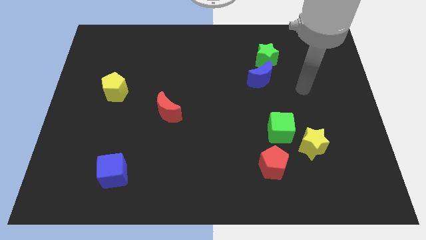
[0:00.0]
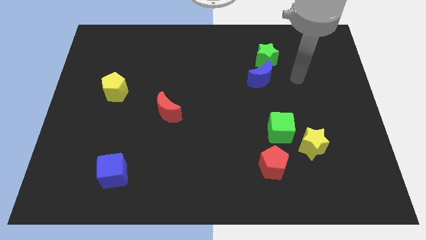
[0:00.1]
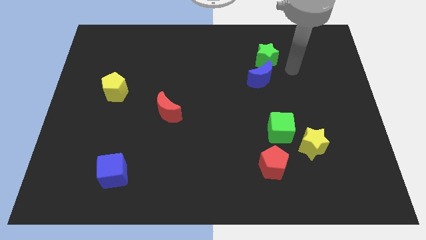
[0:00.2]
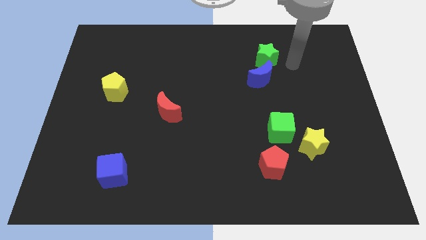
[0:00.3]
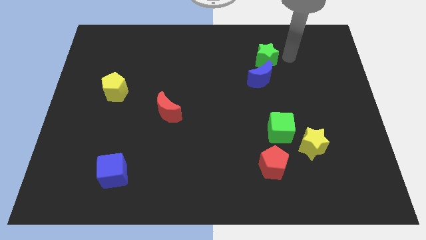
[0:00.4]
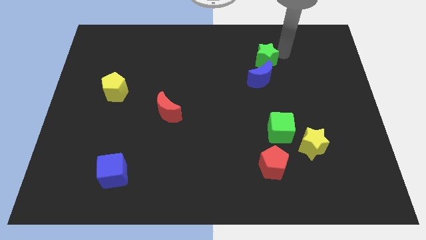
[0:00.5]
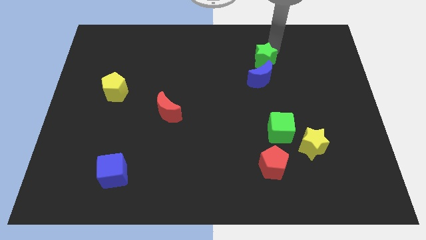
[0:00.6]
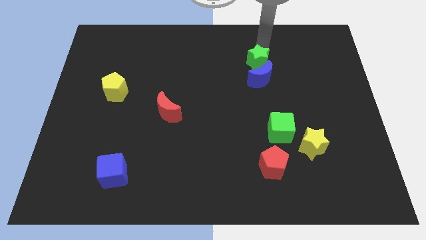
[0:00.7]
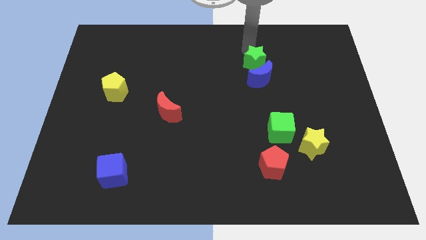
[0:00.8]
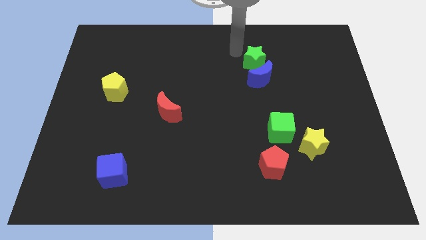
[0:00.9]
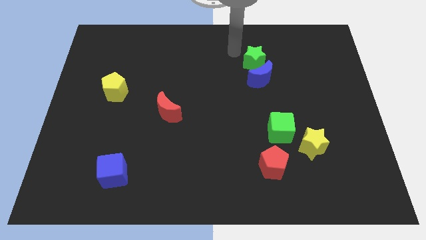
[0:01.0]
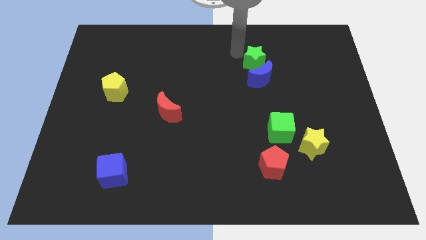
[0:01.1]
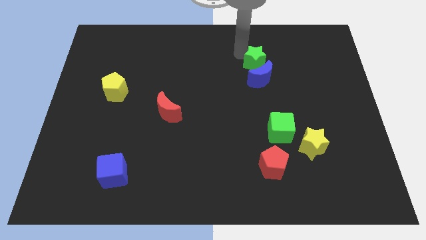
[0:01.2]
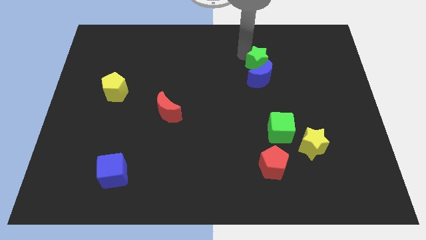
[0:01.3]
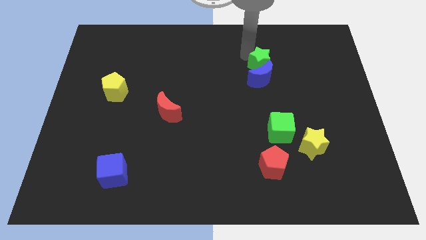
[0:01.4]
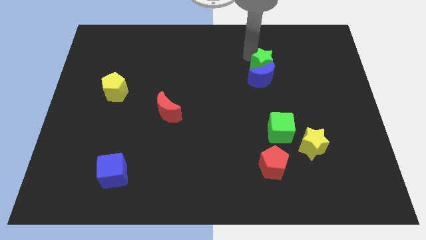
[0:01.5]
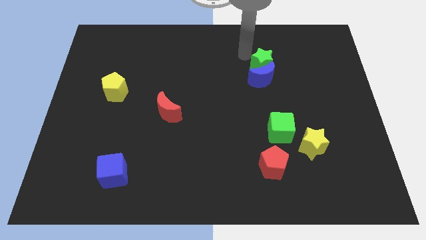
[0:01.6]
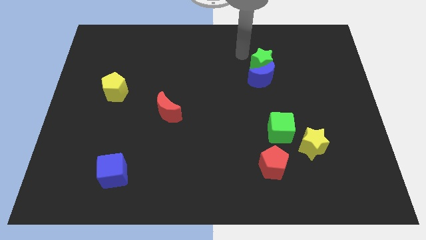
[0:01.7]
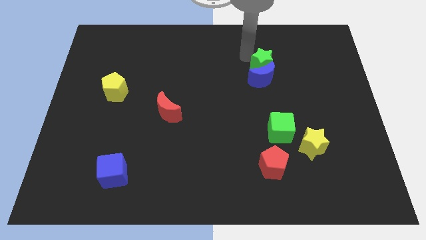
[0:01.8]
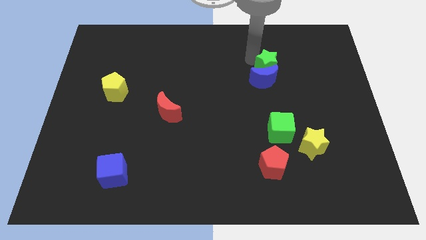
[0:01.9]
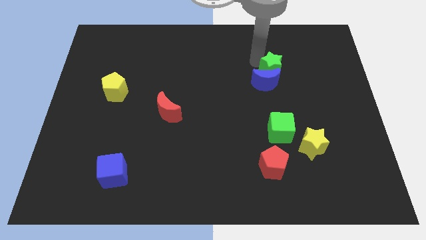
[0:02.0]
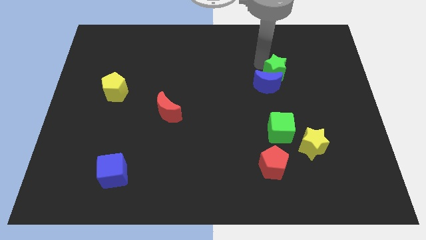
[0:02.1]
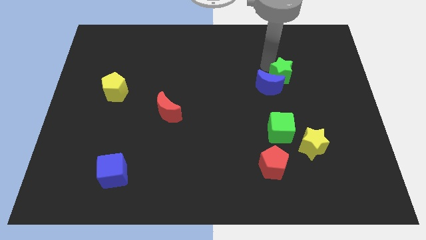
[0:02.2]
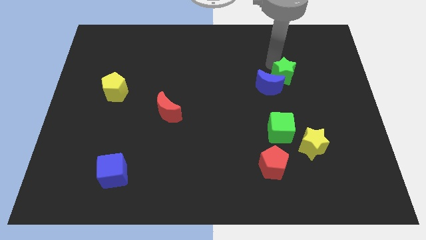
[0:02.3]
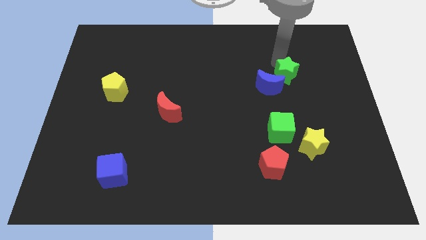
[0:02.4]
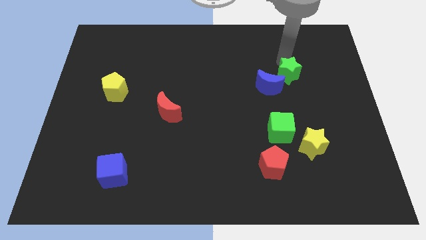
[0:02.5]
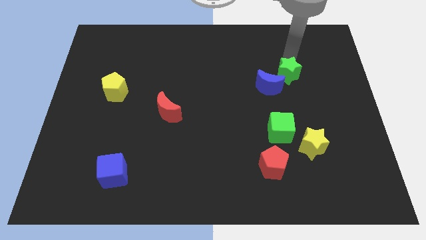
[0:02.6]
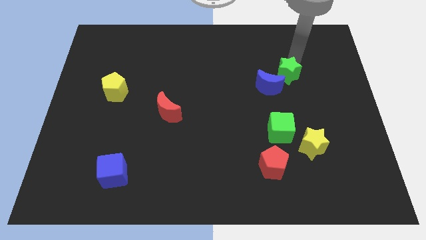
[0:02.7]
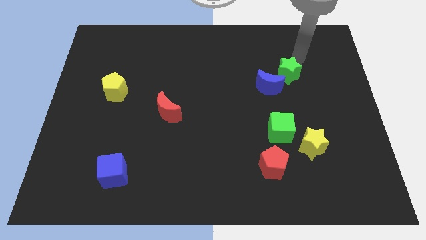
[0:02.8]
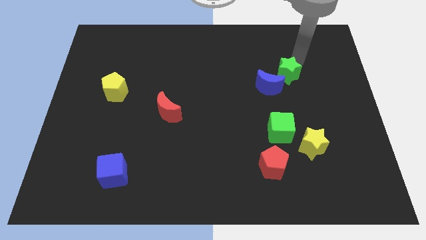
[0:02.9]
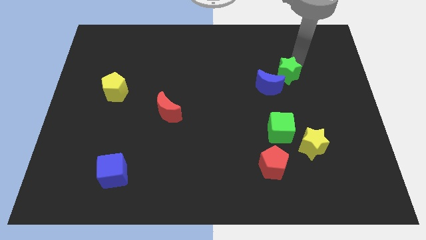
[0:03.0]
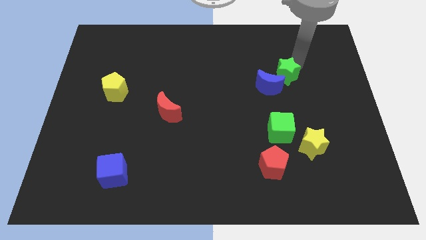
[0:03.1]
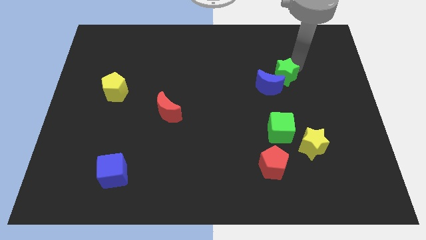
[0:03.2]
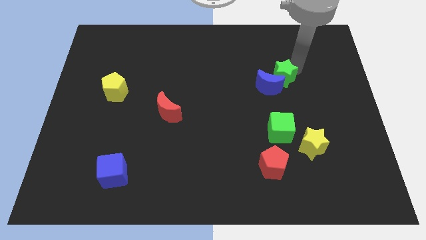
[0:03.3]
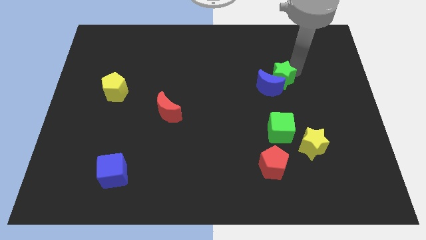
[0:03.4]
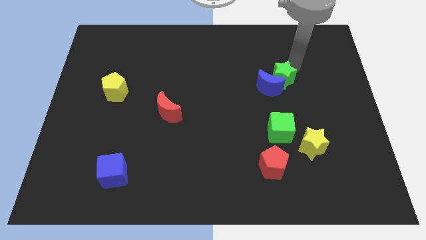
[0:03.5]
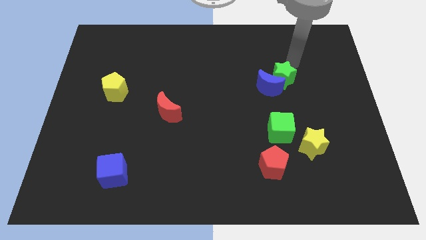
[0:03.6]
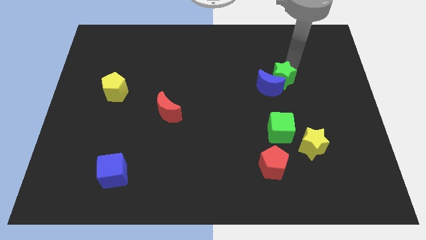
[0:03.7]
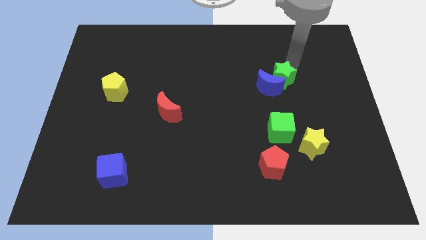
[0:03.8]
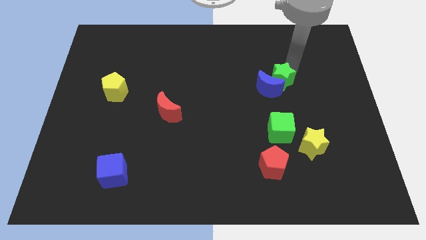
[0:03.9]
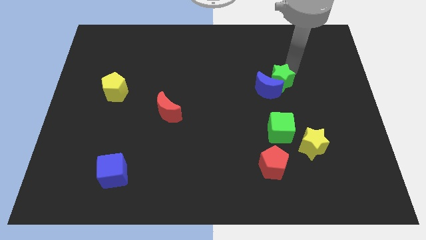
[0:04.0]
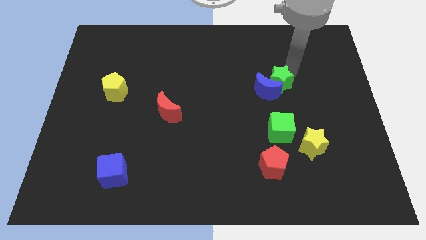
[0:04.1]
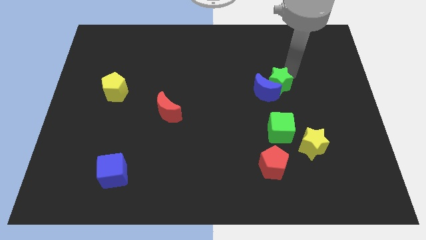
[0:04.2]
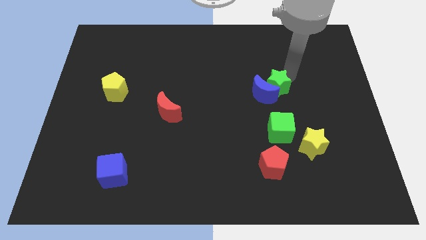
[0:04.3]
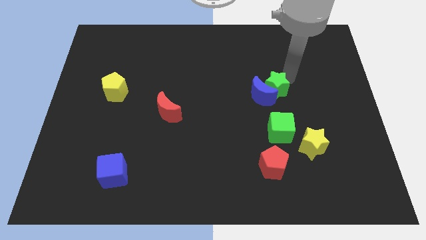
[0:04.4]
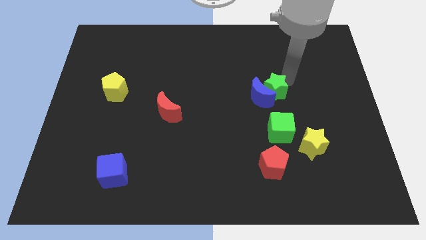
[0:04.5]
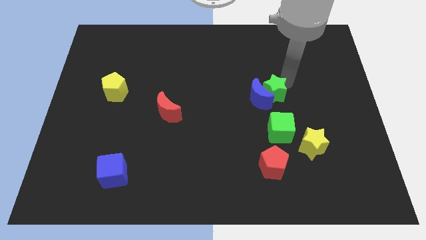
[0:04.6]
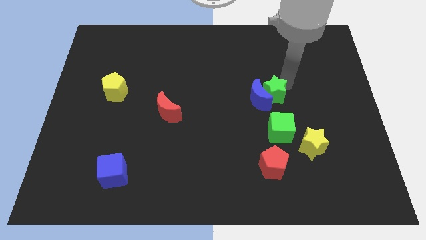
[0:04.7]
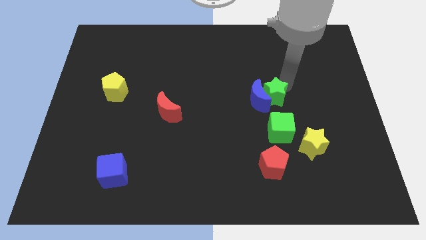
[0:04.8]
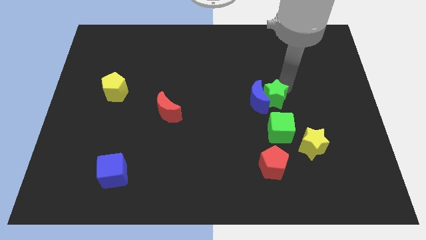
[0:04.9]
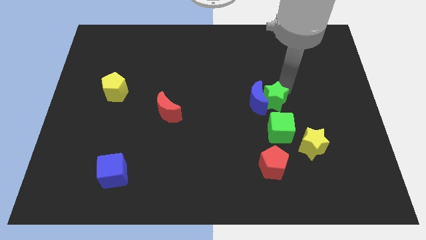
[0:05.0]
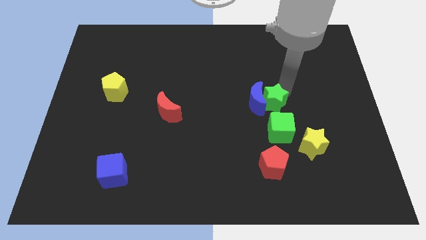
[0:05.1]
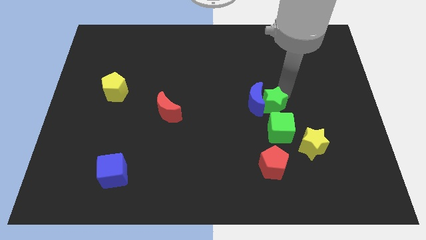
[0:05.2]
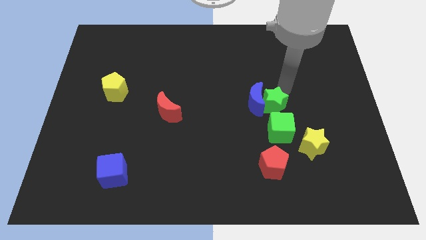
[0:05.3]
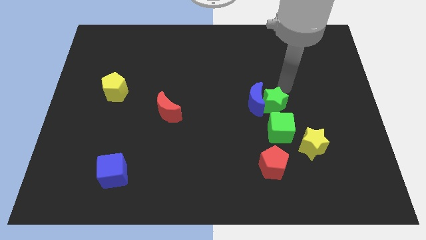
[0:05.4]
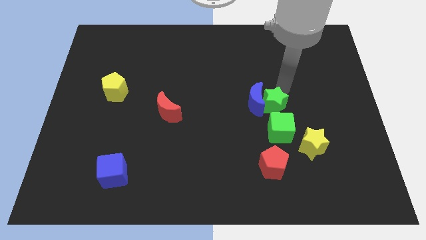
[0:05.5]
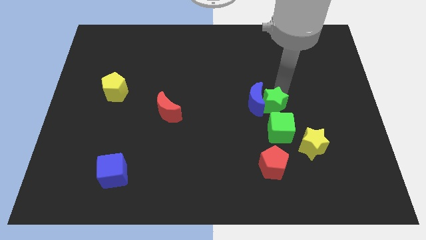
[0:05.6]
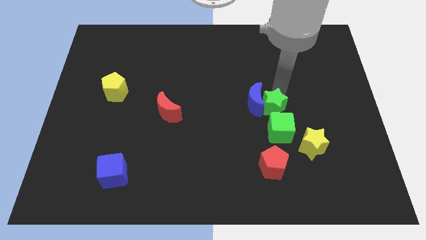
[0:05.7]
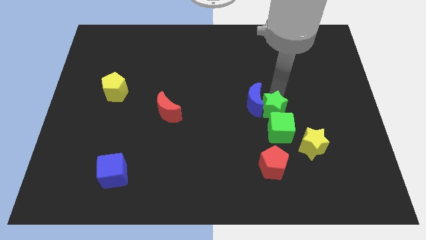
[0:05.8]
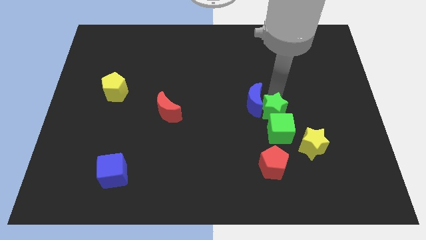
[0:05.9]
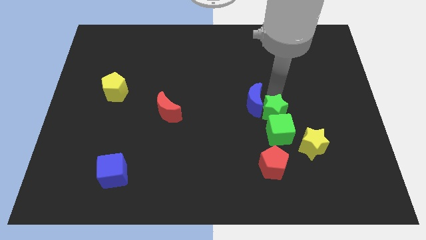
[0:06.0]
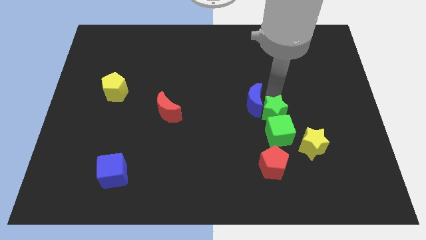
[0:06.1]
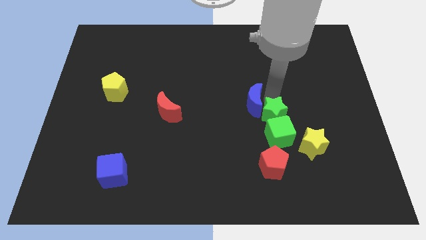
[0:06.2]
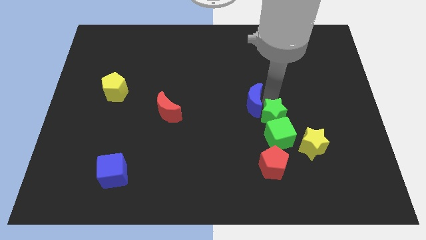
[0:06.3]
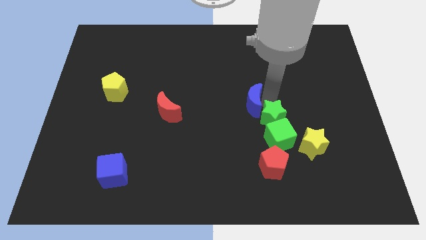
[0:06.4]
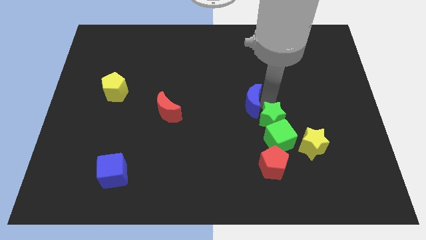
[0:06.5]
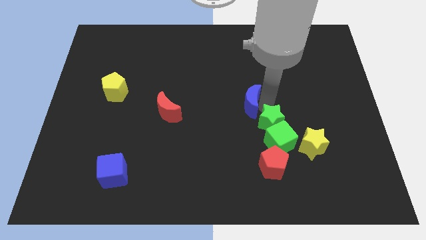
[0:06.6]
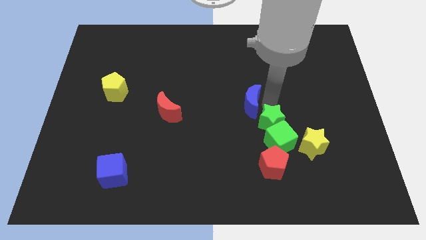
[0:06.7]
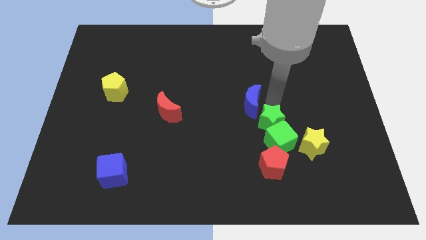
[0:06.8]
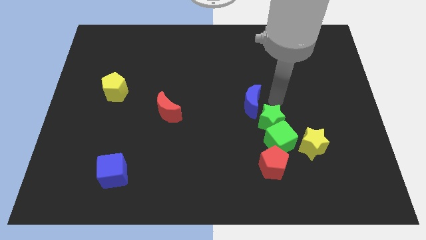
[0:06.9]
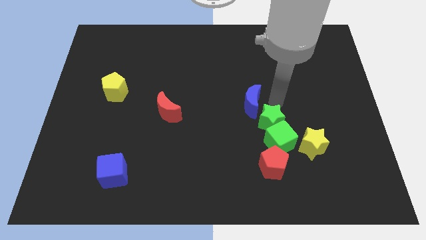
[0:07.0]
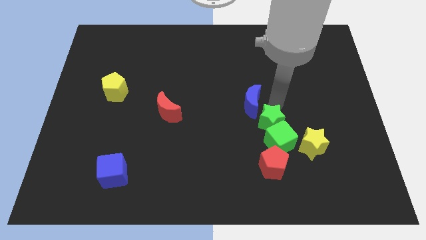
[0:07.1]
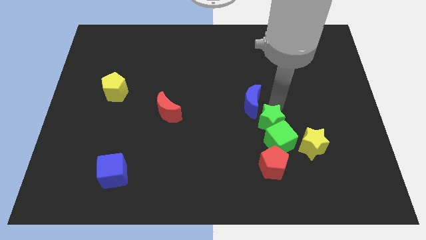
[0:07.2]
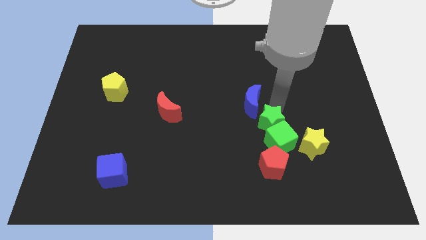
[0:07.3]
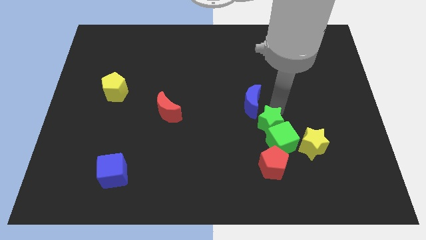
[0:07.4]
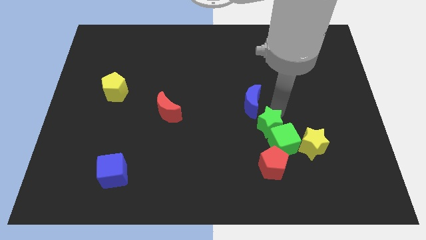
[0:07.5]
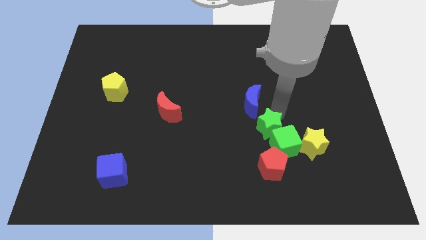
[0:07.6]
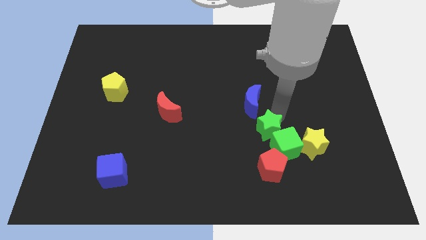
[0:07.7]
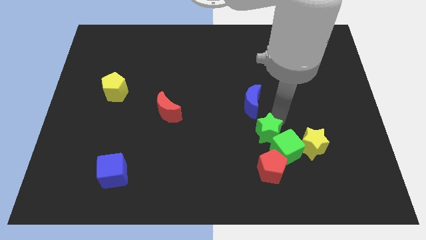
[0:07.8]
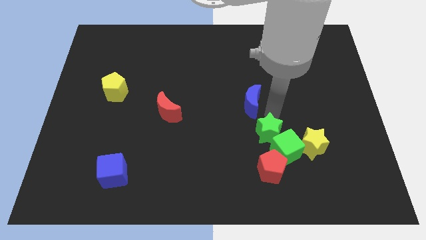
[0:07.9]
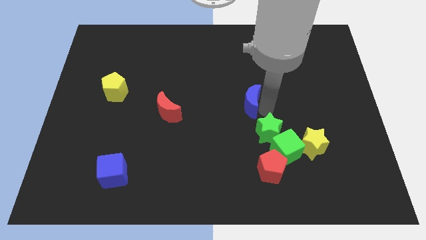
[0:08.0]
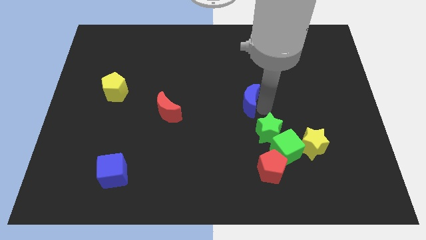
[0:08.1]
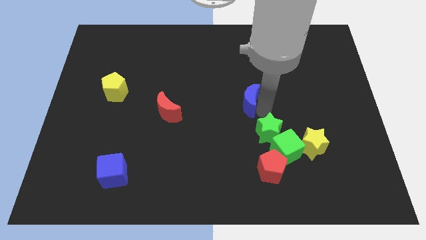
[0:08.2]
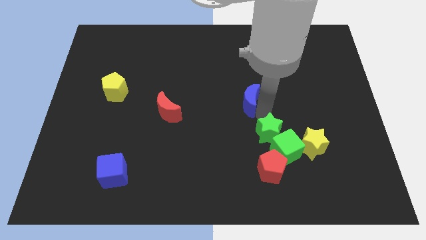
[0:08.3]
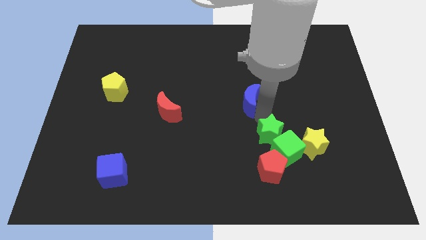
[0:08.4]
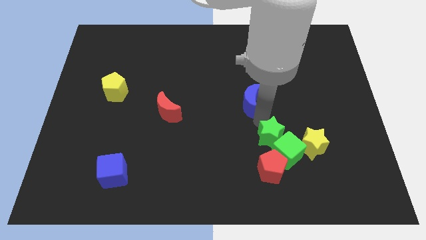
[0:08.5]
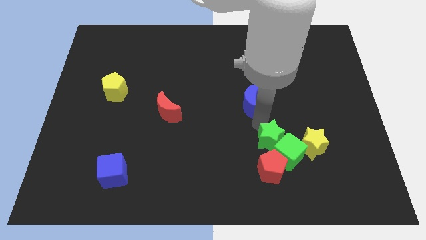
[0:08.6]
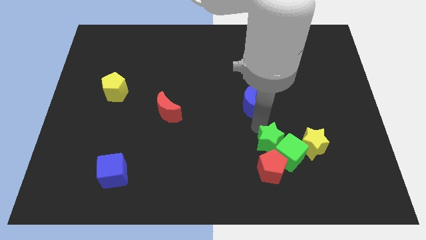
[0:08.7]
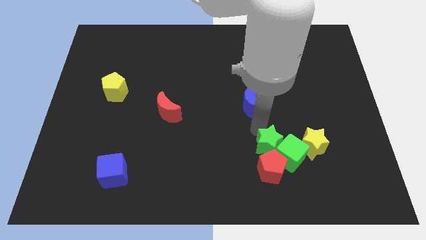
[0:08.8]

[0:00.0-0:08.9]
put the green star next to the red pentagon
